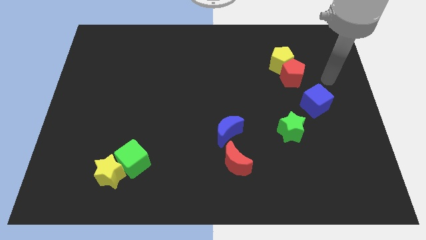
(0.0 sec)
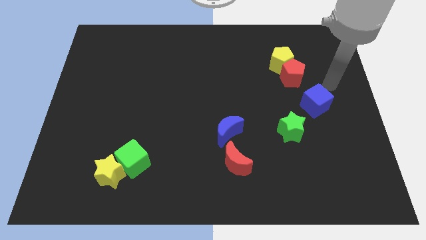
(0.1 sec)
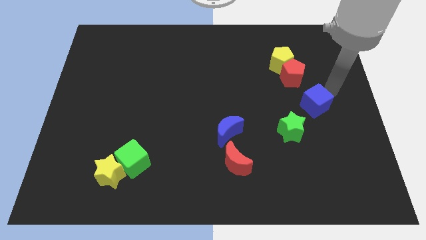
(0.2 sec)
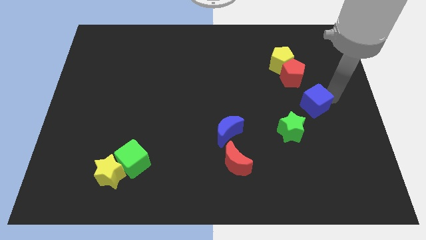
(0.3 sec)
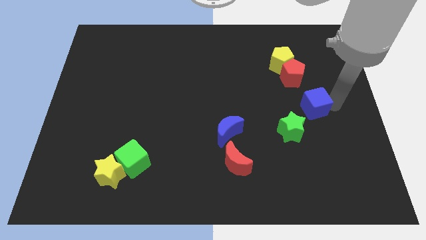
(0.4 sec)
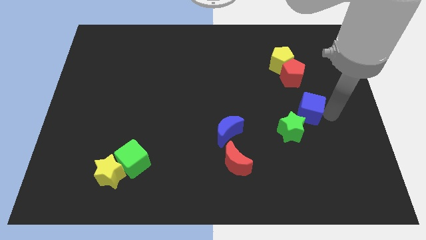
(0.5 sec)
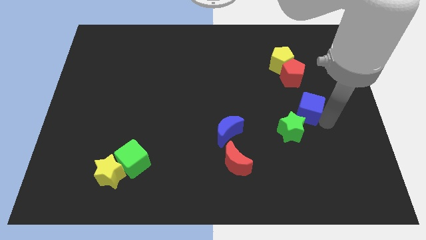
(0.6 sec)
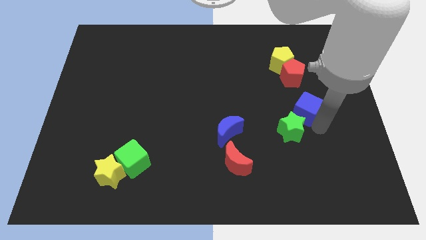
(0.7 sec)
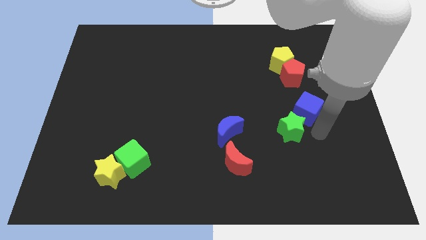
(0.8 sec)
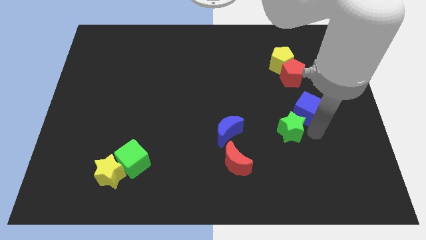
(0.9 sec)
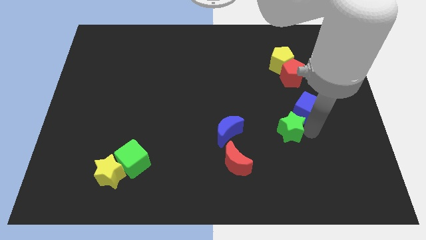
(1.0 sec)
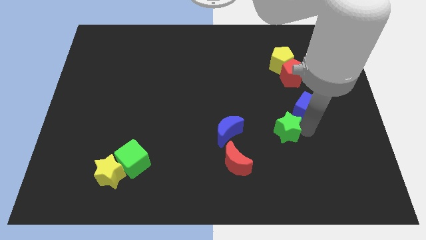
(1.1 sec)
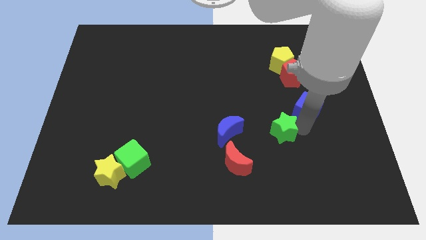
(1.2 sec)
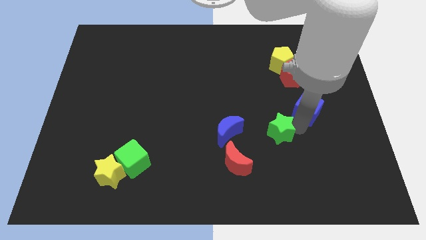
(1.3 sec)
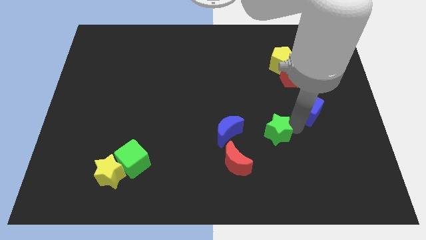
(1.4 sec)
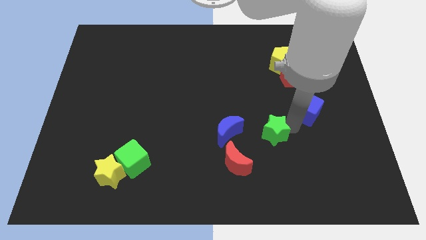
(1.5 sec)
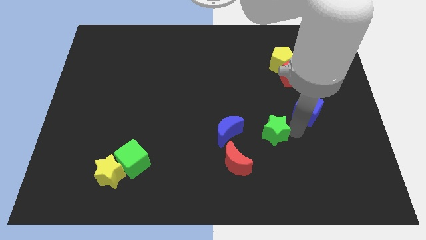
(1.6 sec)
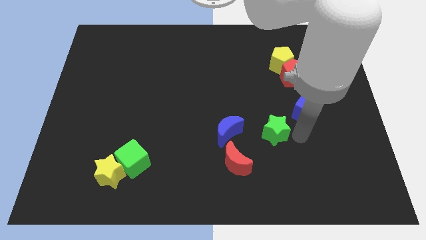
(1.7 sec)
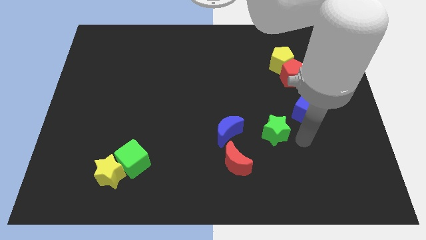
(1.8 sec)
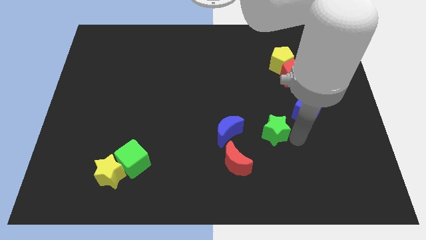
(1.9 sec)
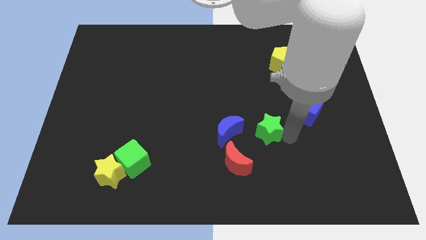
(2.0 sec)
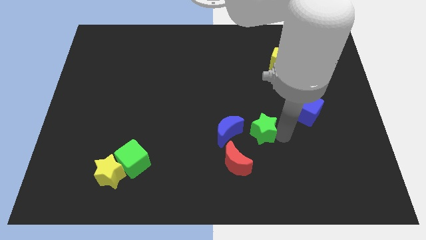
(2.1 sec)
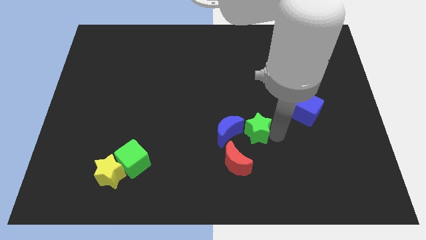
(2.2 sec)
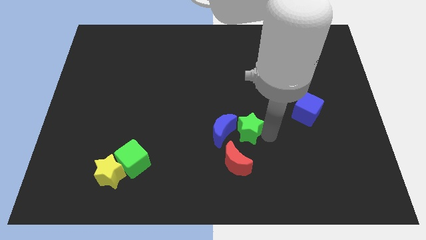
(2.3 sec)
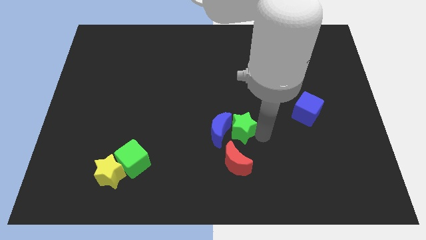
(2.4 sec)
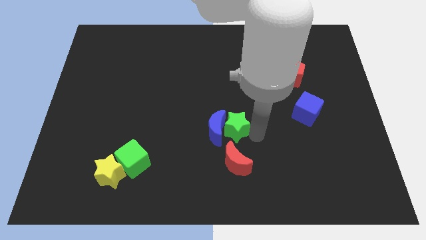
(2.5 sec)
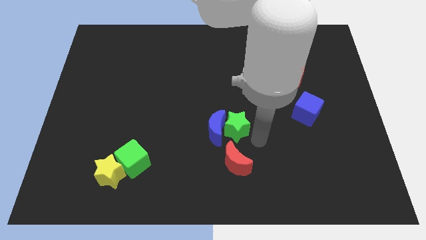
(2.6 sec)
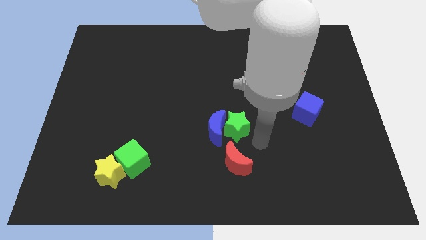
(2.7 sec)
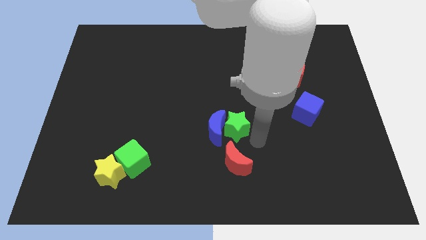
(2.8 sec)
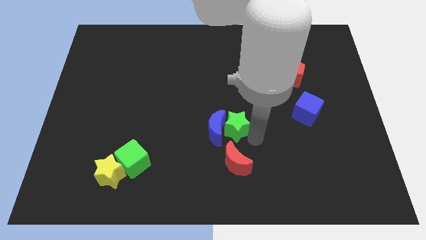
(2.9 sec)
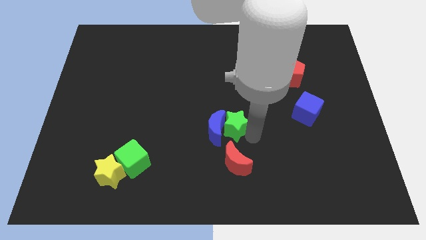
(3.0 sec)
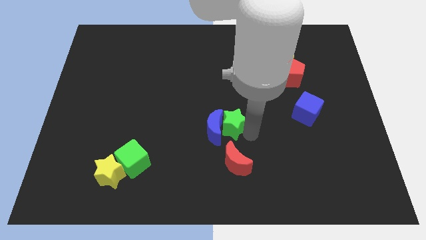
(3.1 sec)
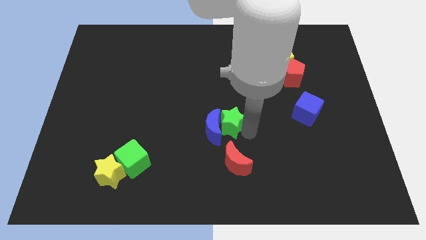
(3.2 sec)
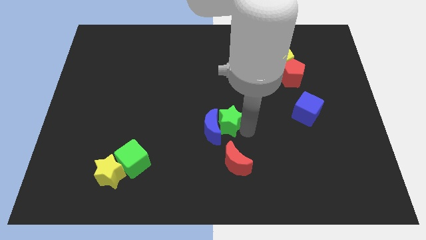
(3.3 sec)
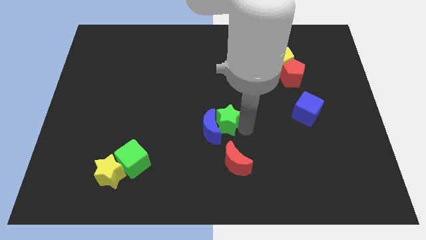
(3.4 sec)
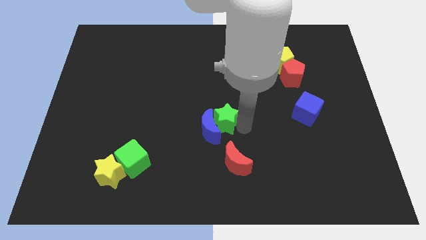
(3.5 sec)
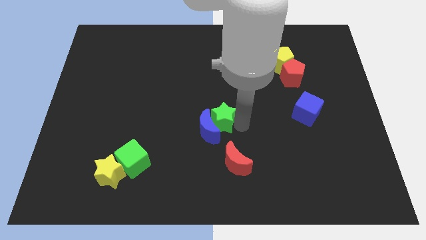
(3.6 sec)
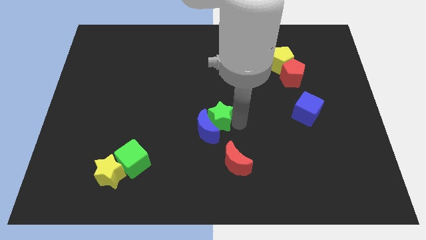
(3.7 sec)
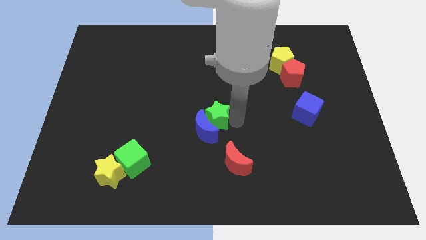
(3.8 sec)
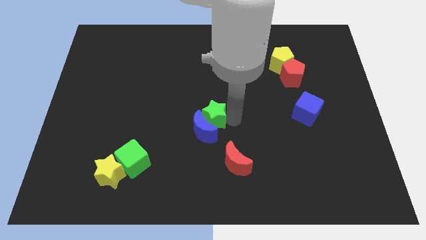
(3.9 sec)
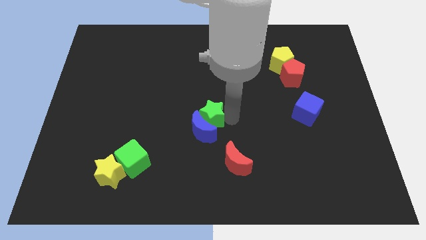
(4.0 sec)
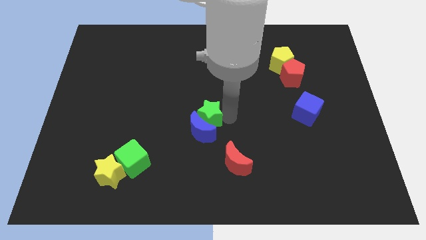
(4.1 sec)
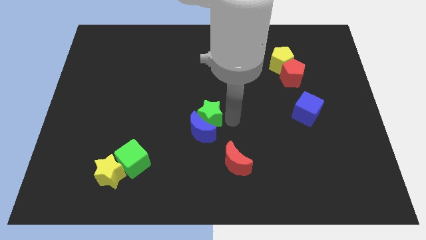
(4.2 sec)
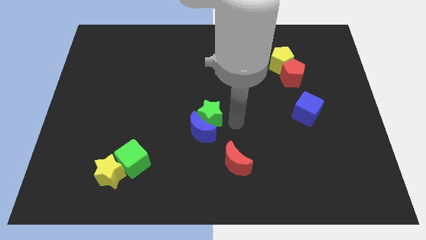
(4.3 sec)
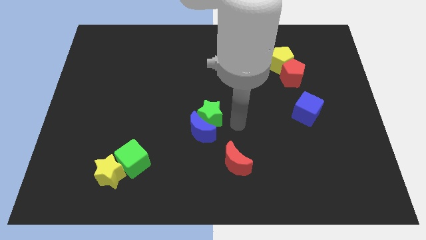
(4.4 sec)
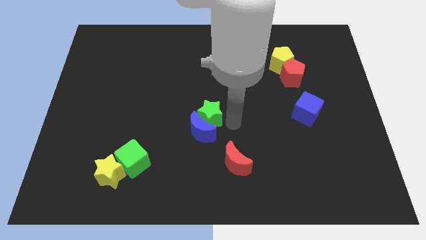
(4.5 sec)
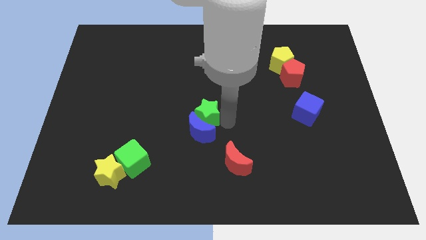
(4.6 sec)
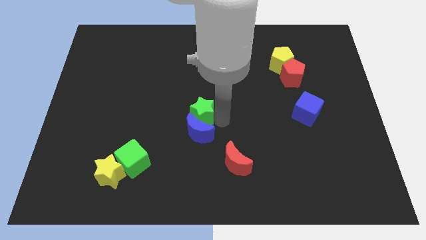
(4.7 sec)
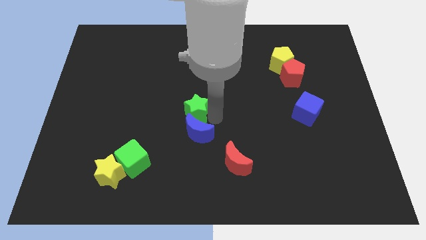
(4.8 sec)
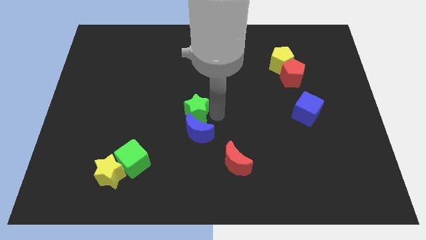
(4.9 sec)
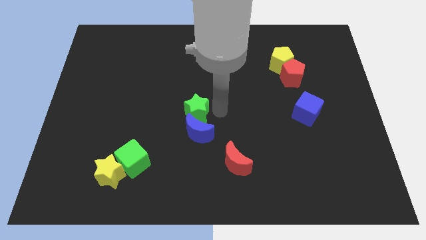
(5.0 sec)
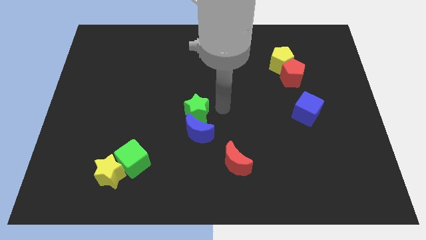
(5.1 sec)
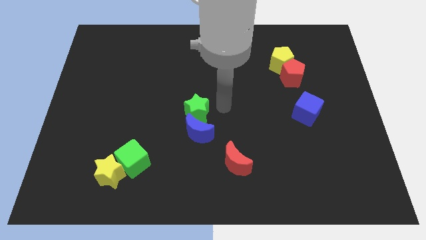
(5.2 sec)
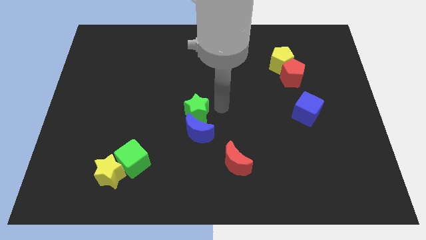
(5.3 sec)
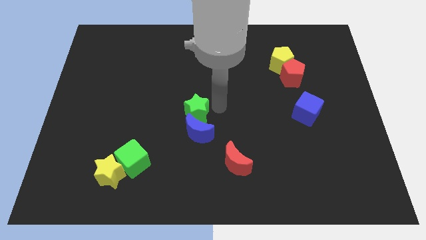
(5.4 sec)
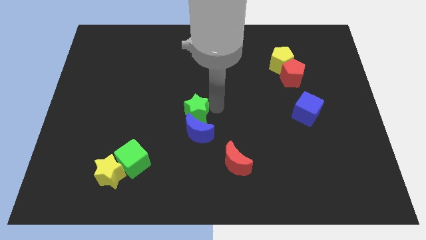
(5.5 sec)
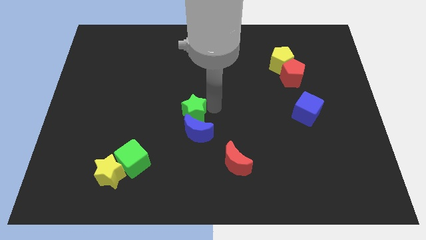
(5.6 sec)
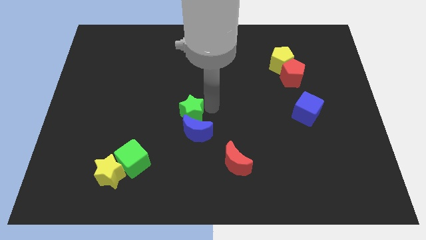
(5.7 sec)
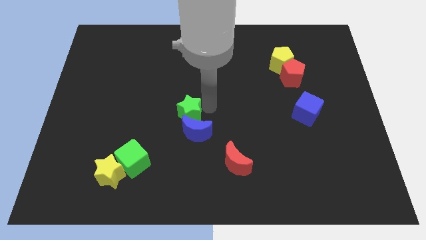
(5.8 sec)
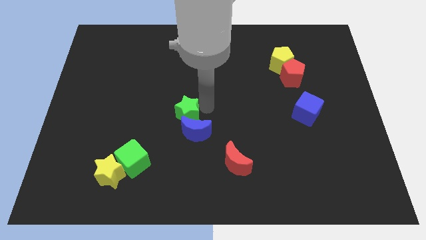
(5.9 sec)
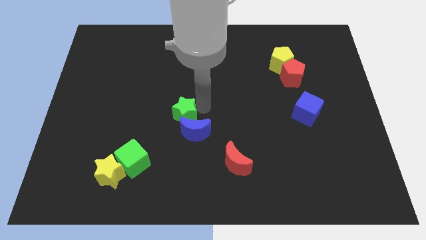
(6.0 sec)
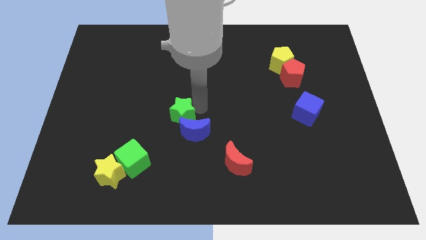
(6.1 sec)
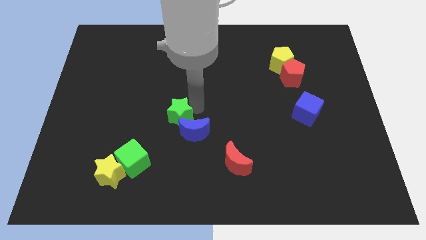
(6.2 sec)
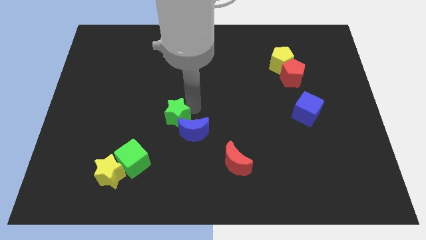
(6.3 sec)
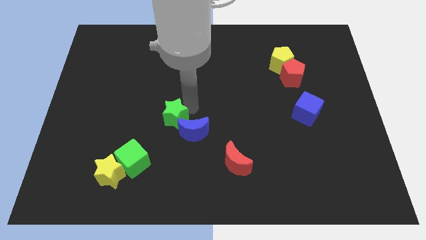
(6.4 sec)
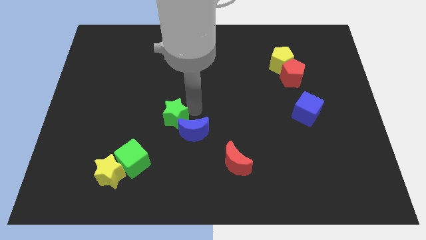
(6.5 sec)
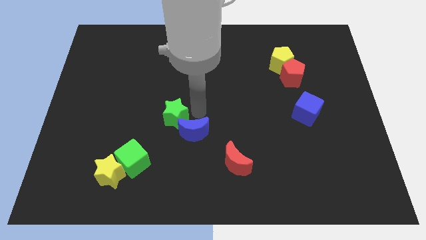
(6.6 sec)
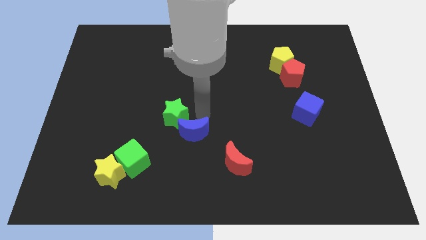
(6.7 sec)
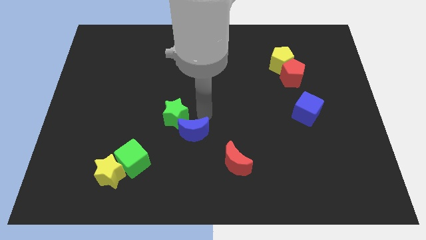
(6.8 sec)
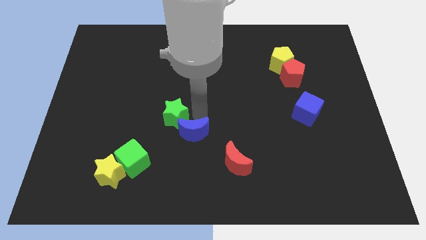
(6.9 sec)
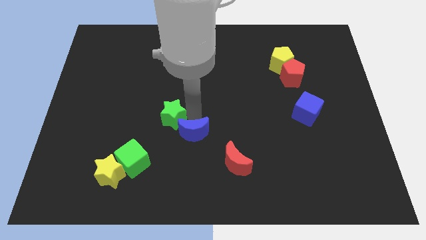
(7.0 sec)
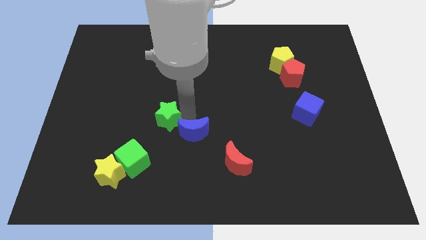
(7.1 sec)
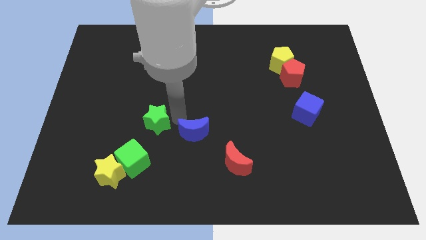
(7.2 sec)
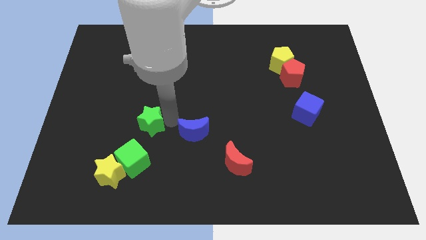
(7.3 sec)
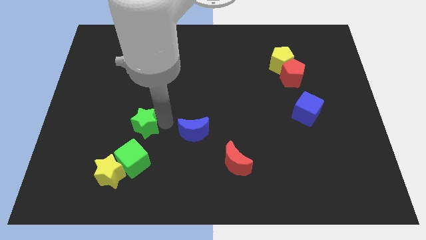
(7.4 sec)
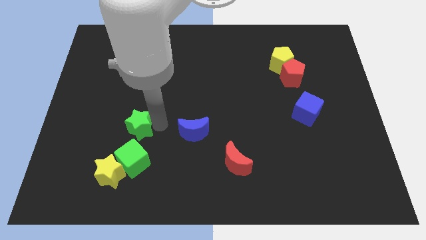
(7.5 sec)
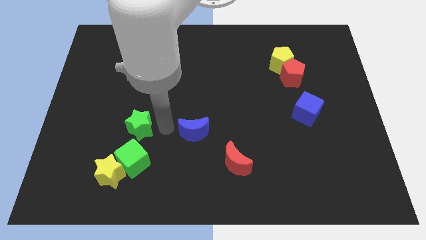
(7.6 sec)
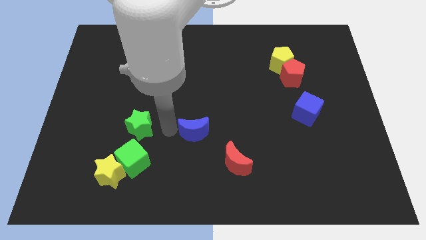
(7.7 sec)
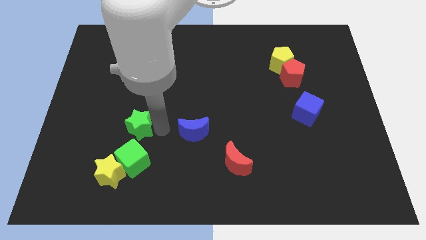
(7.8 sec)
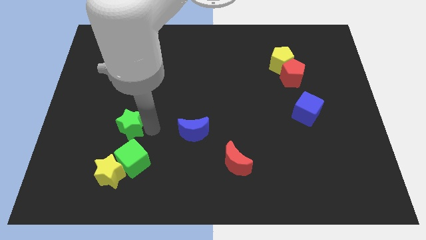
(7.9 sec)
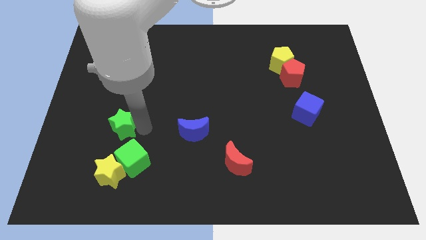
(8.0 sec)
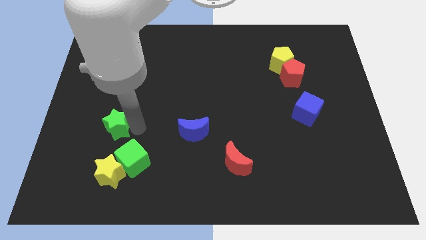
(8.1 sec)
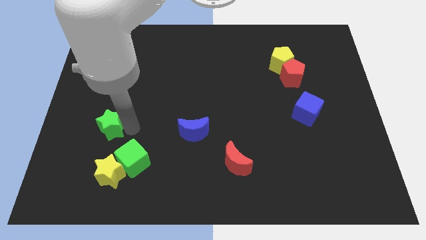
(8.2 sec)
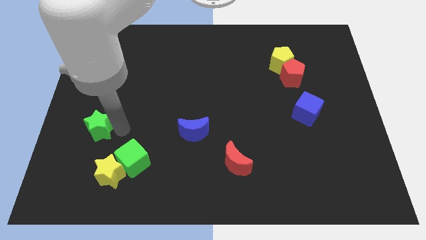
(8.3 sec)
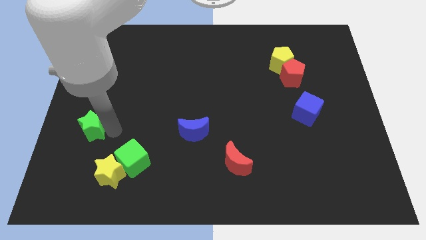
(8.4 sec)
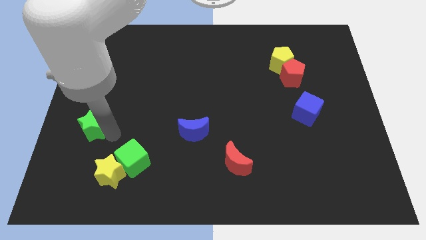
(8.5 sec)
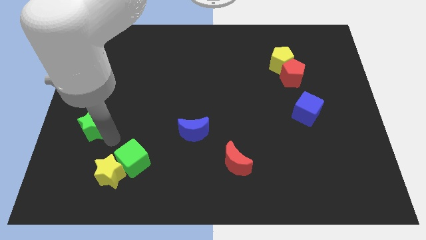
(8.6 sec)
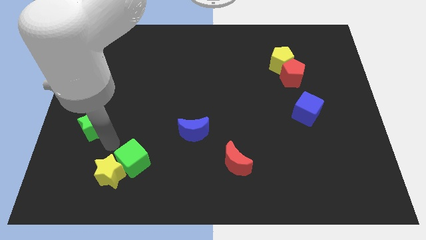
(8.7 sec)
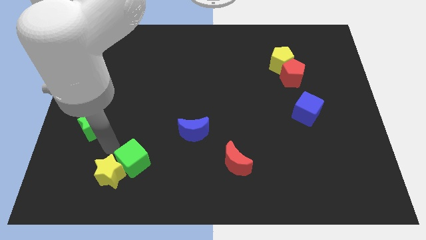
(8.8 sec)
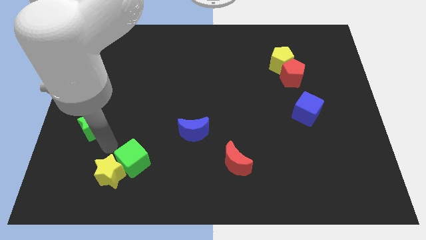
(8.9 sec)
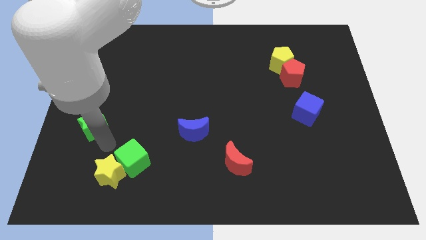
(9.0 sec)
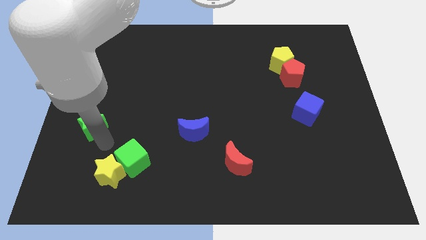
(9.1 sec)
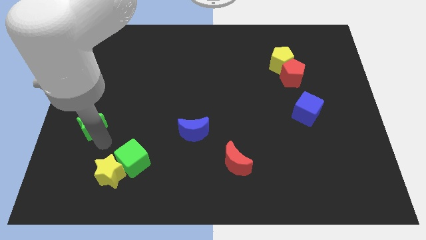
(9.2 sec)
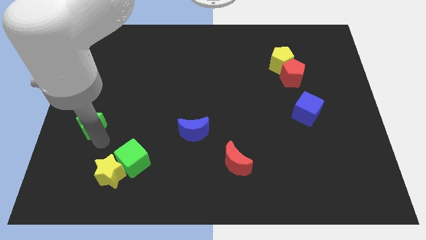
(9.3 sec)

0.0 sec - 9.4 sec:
slide the green star to the left side
